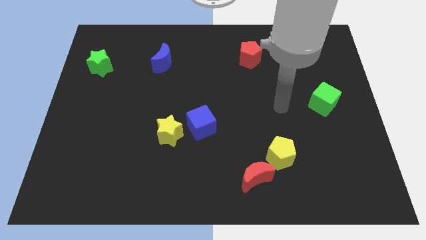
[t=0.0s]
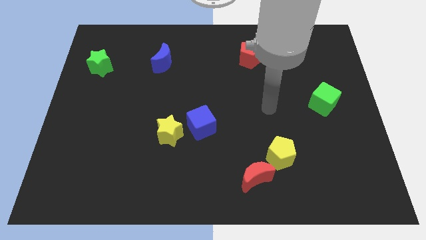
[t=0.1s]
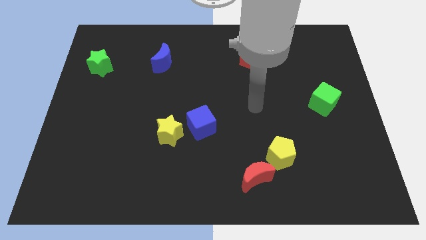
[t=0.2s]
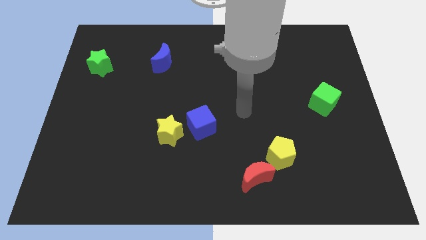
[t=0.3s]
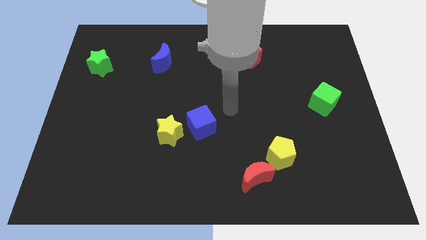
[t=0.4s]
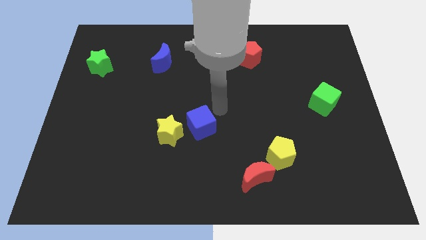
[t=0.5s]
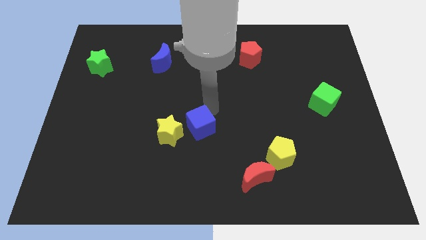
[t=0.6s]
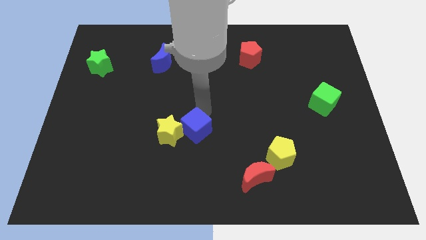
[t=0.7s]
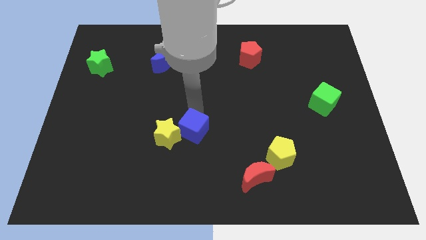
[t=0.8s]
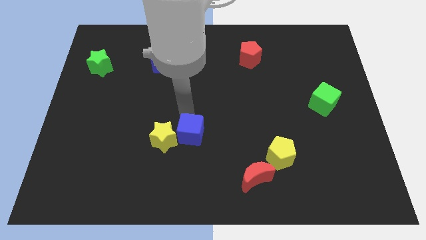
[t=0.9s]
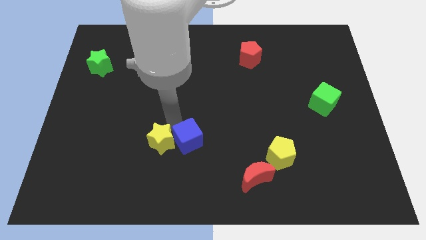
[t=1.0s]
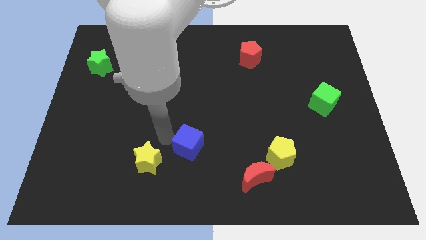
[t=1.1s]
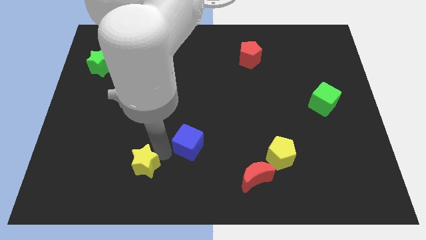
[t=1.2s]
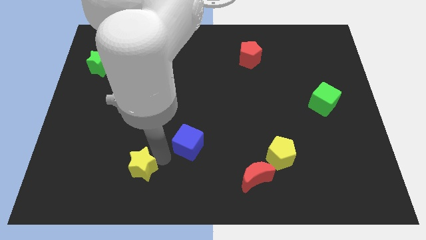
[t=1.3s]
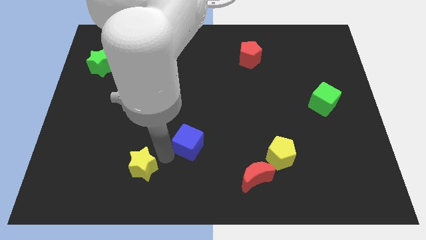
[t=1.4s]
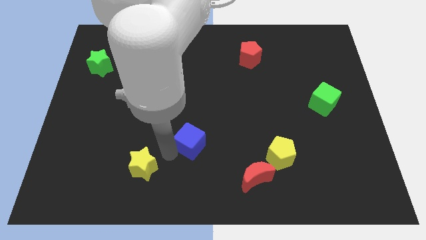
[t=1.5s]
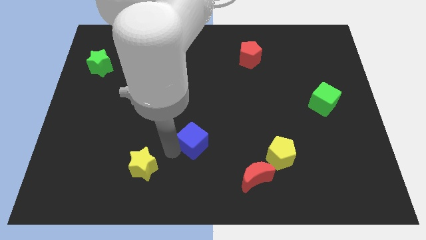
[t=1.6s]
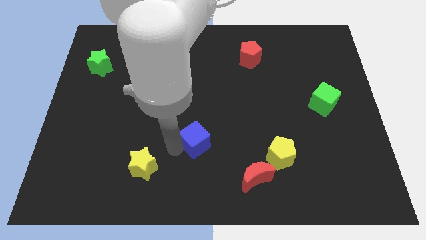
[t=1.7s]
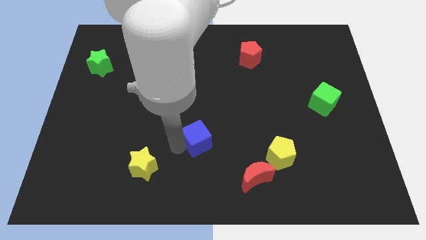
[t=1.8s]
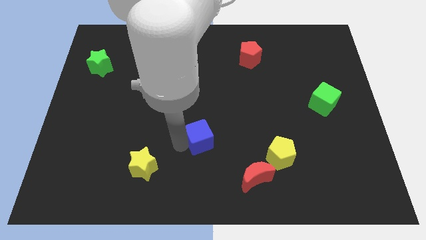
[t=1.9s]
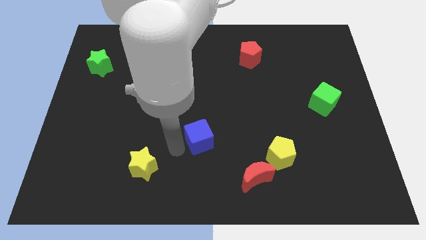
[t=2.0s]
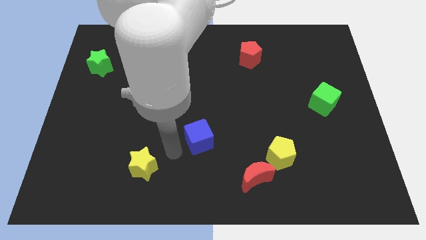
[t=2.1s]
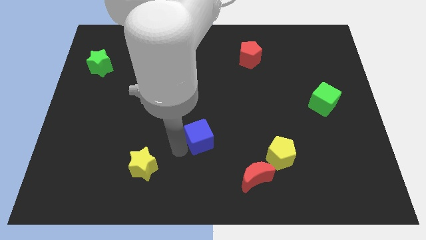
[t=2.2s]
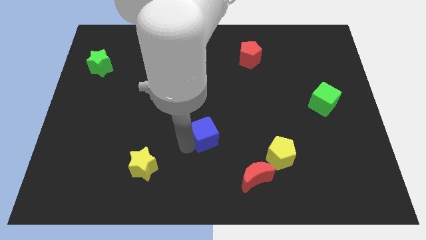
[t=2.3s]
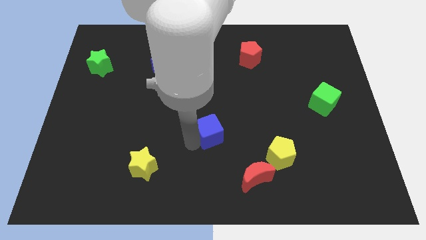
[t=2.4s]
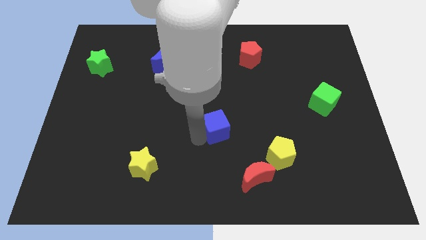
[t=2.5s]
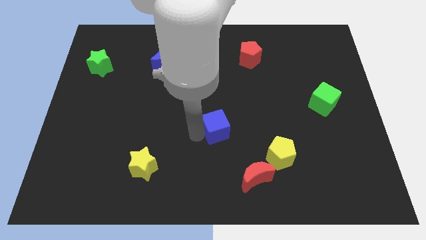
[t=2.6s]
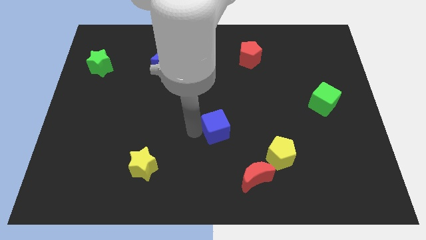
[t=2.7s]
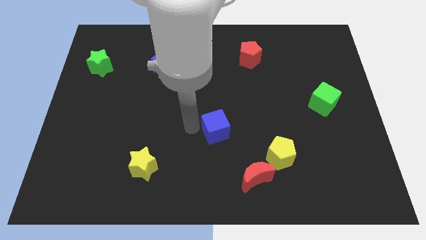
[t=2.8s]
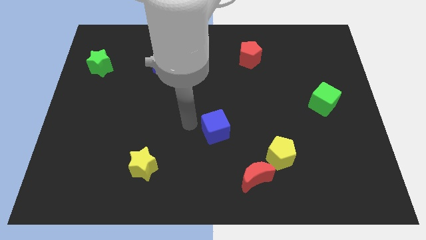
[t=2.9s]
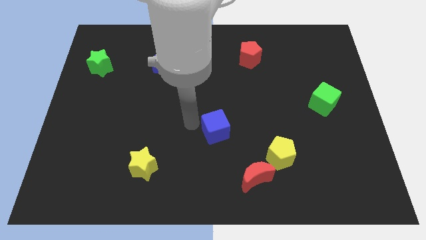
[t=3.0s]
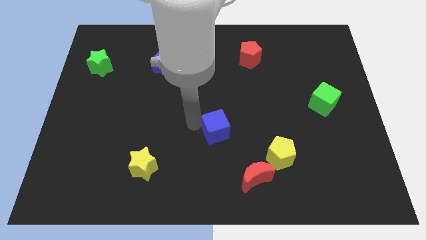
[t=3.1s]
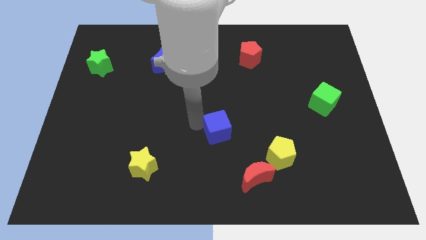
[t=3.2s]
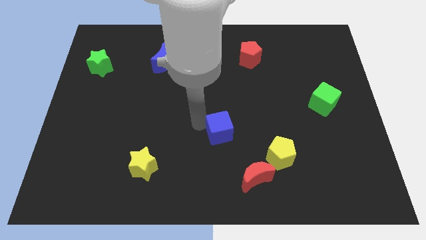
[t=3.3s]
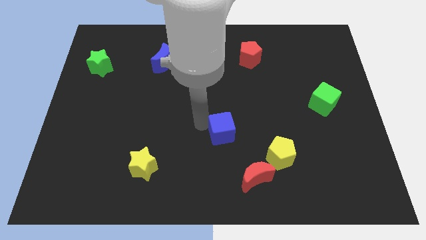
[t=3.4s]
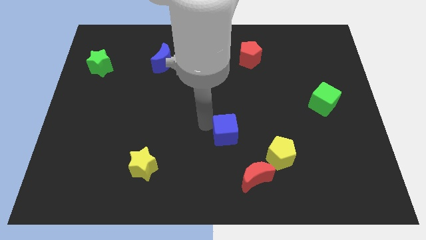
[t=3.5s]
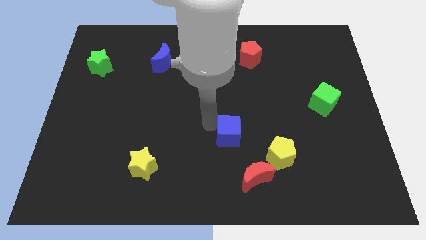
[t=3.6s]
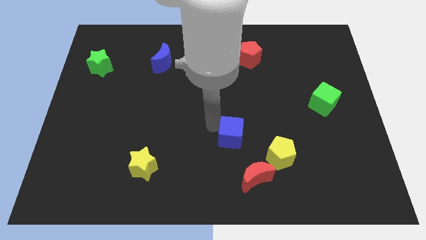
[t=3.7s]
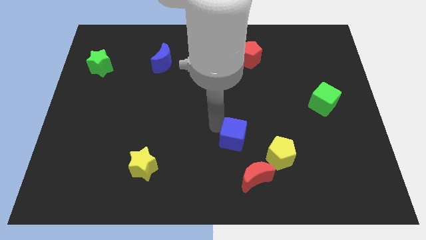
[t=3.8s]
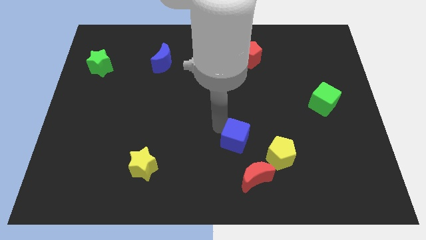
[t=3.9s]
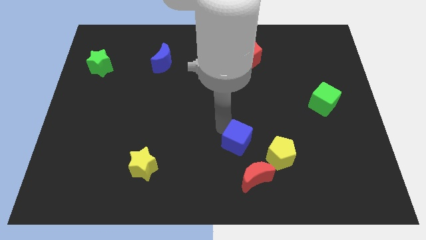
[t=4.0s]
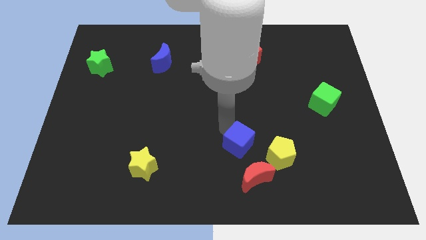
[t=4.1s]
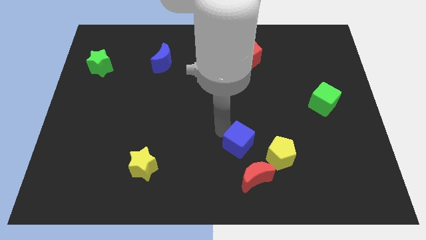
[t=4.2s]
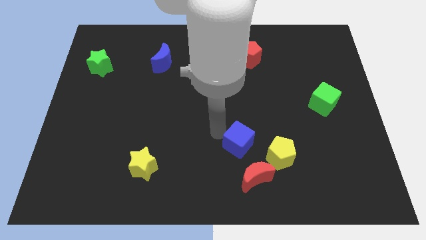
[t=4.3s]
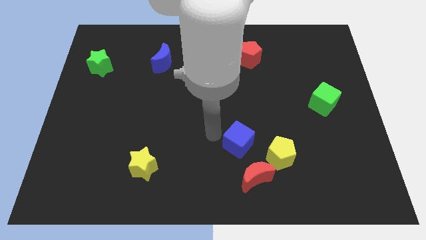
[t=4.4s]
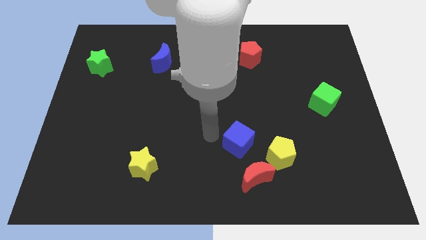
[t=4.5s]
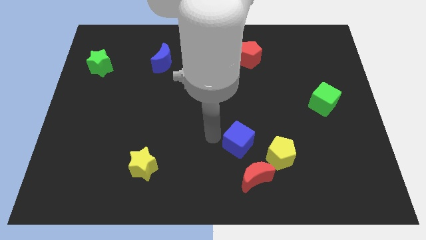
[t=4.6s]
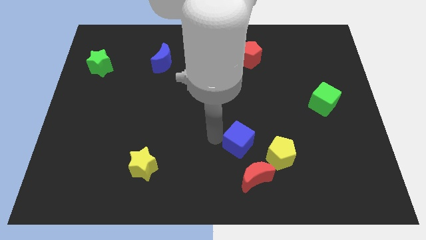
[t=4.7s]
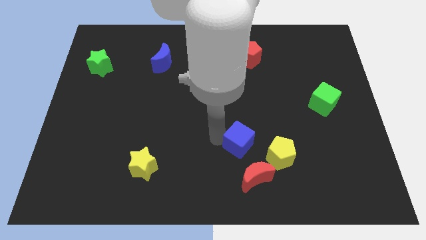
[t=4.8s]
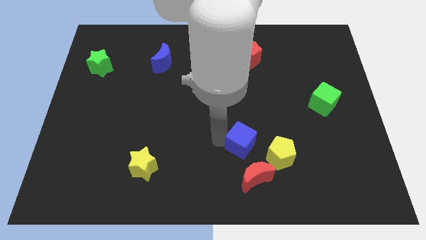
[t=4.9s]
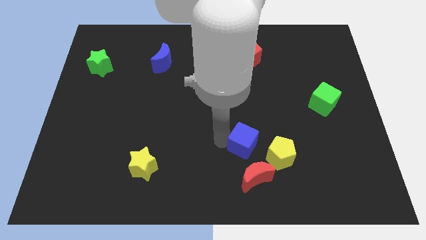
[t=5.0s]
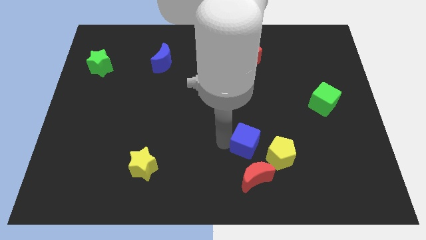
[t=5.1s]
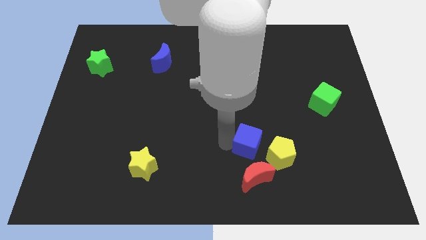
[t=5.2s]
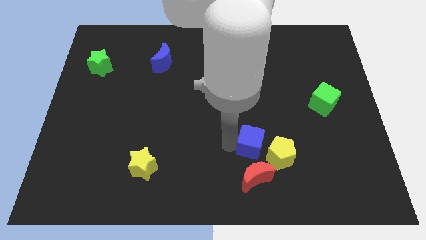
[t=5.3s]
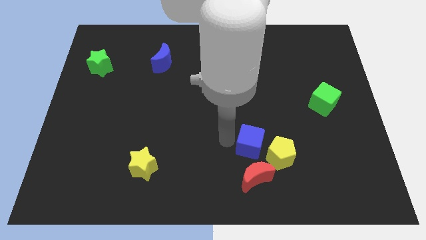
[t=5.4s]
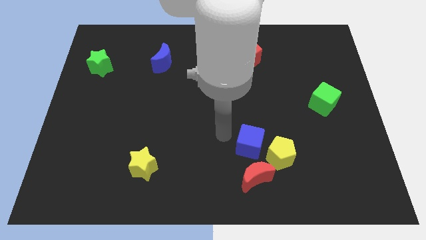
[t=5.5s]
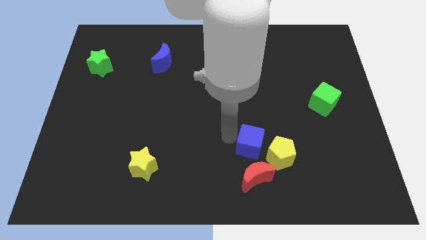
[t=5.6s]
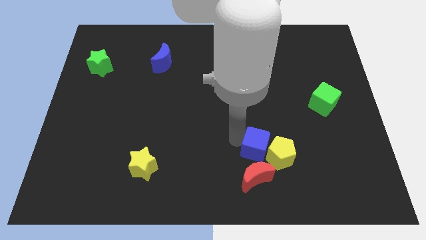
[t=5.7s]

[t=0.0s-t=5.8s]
put the blue cube close to the yellow pentagon

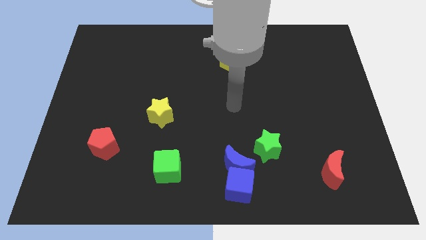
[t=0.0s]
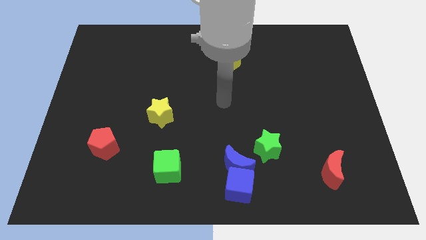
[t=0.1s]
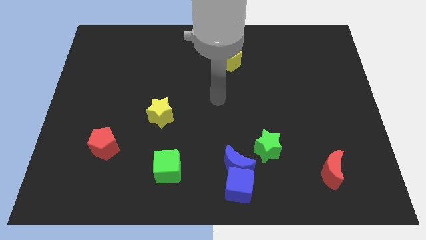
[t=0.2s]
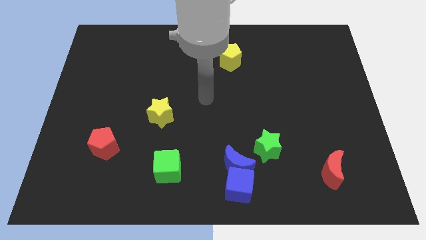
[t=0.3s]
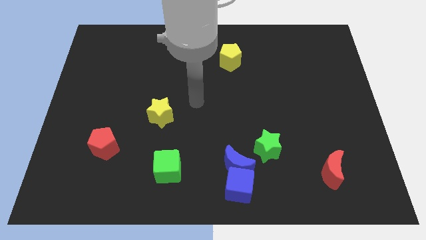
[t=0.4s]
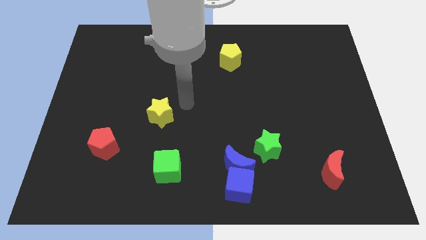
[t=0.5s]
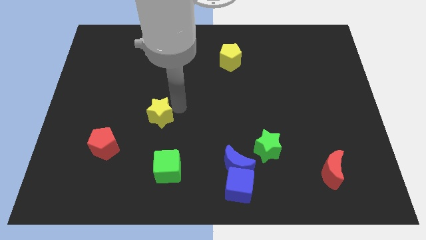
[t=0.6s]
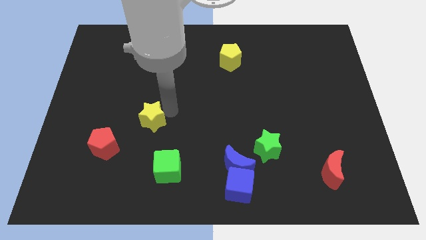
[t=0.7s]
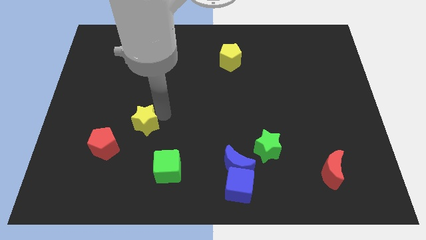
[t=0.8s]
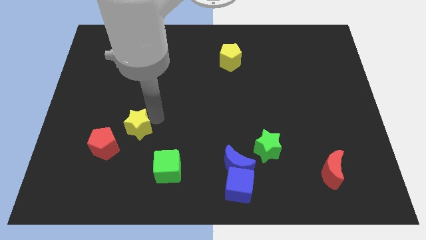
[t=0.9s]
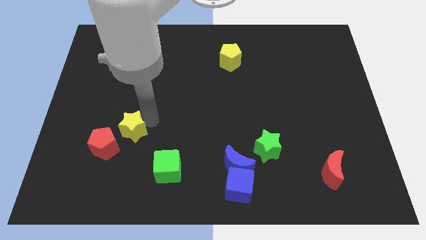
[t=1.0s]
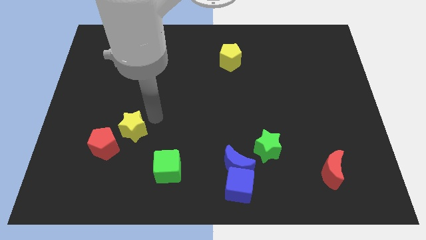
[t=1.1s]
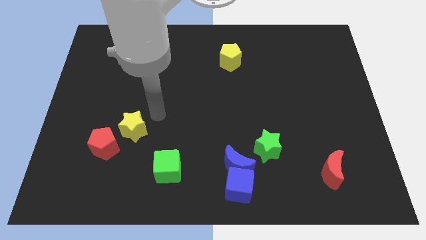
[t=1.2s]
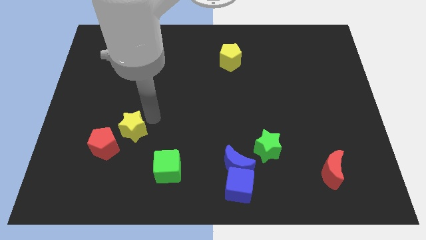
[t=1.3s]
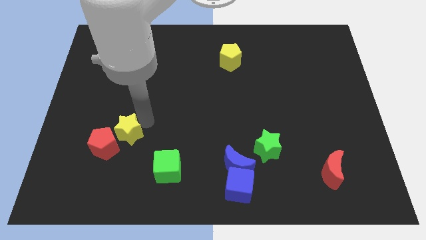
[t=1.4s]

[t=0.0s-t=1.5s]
push the yellow star close to the red pentagon

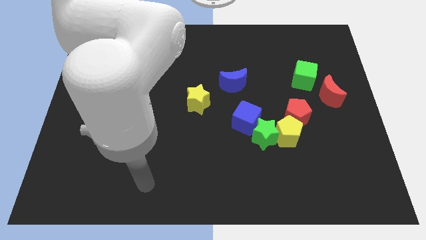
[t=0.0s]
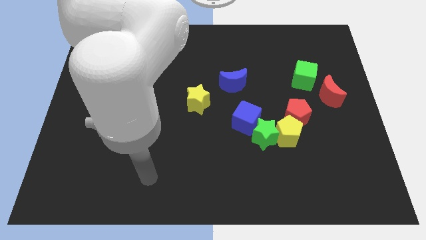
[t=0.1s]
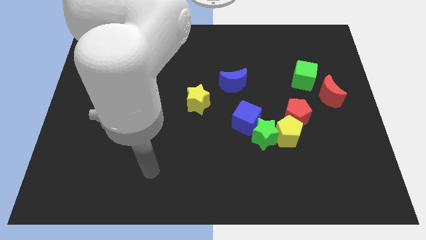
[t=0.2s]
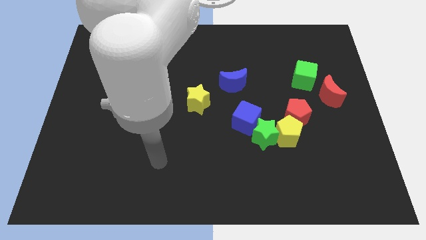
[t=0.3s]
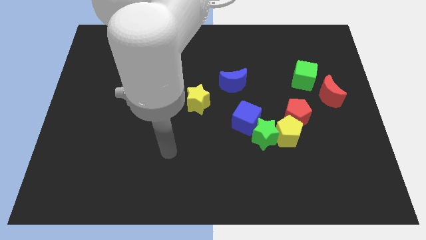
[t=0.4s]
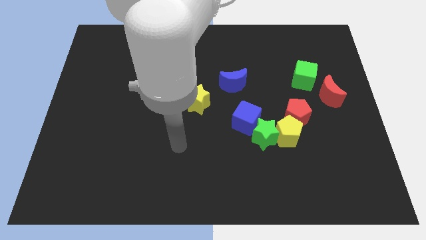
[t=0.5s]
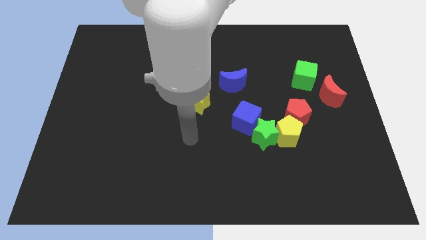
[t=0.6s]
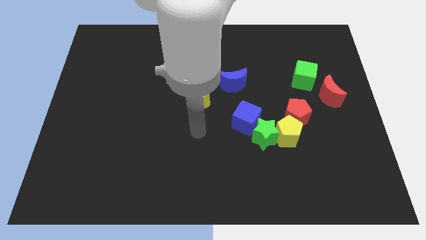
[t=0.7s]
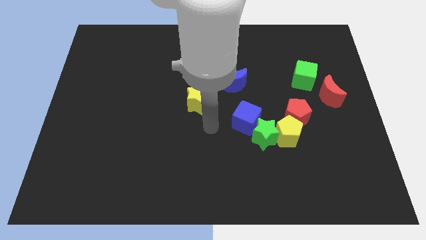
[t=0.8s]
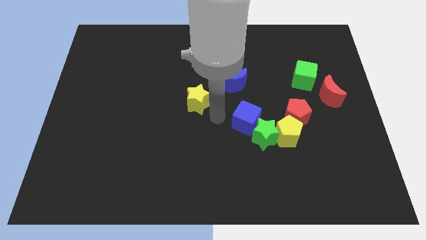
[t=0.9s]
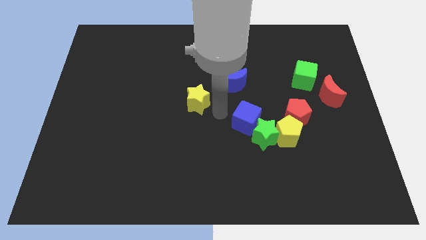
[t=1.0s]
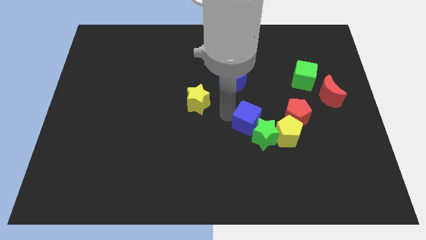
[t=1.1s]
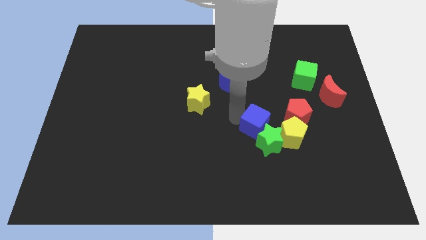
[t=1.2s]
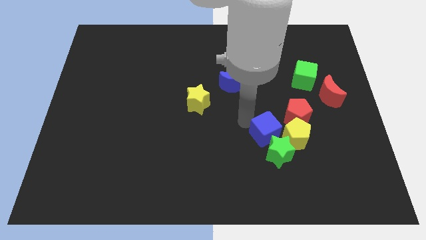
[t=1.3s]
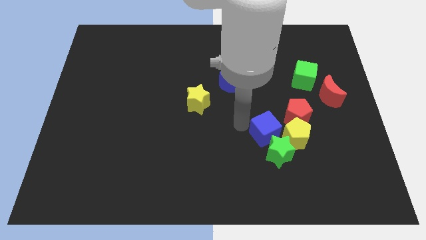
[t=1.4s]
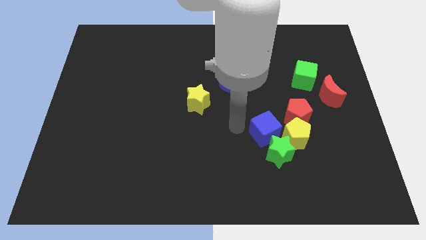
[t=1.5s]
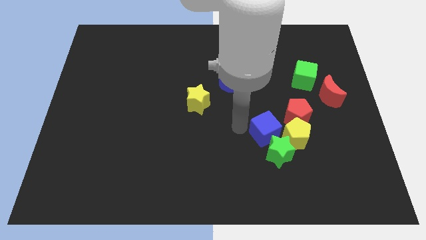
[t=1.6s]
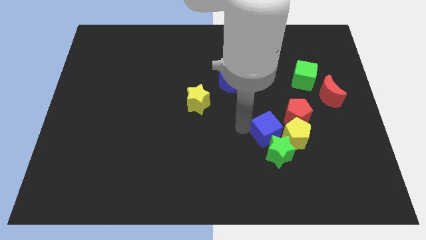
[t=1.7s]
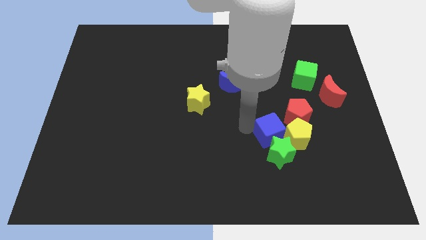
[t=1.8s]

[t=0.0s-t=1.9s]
slide the blue cube next to the yellow pentagon
